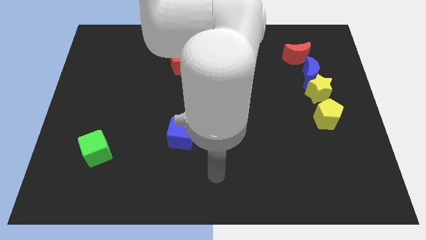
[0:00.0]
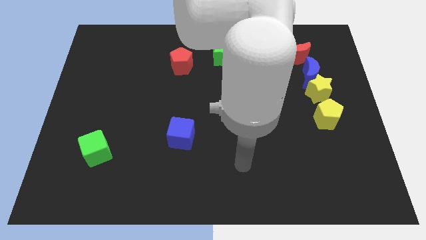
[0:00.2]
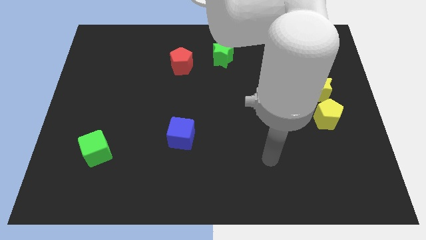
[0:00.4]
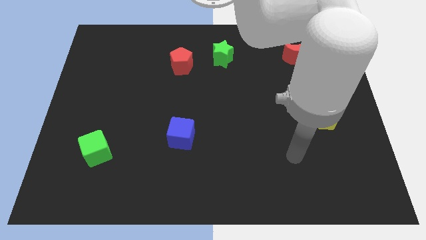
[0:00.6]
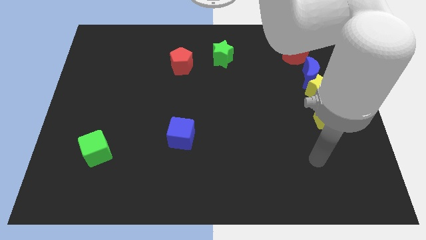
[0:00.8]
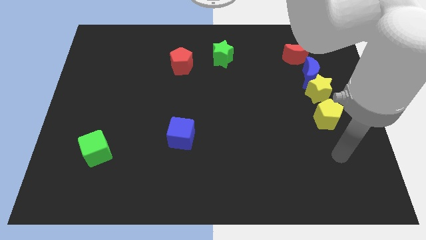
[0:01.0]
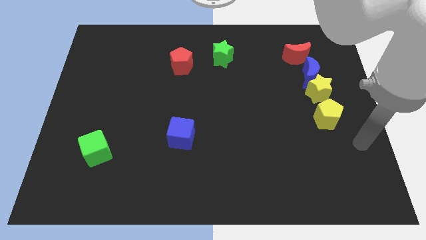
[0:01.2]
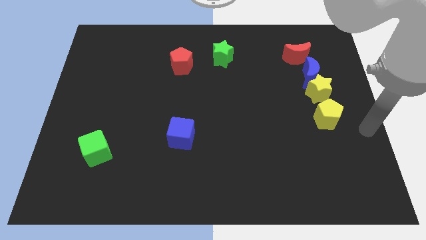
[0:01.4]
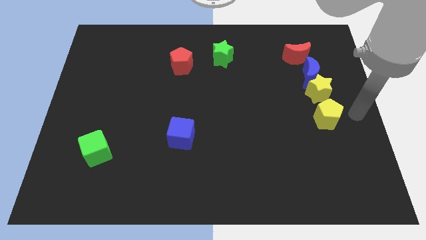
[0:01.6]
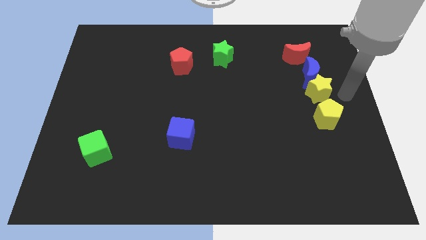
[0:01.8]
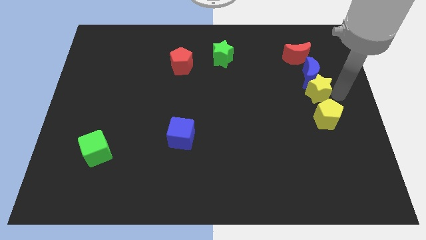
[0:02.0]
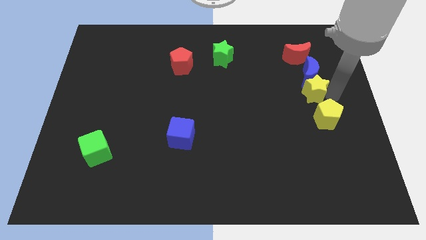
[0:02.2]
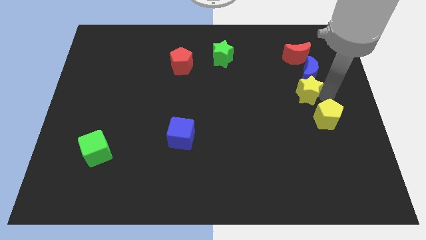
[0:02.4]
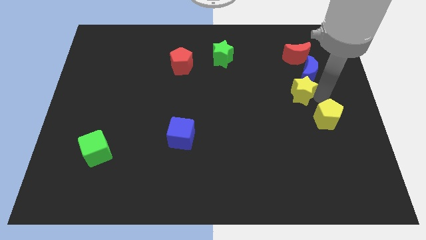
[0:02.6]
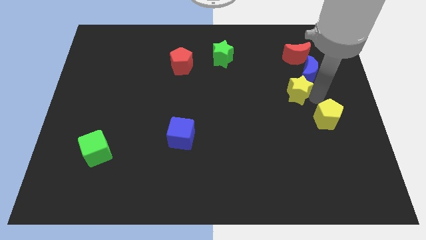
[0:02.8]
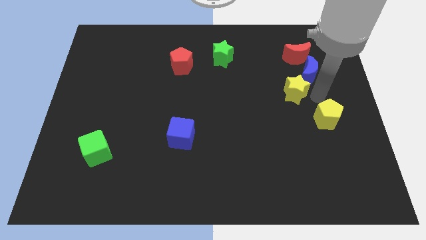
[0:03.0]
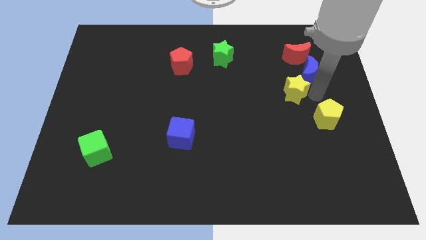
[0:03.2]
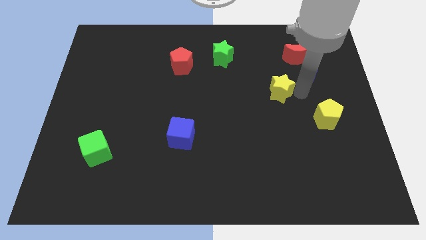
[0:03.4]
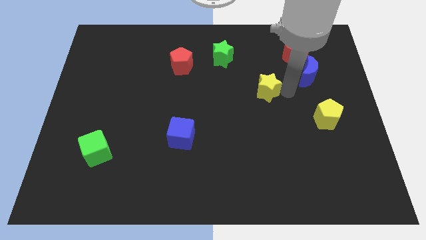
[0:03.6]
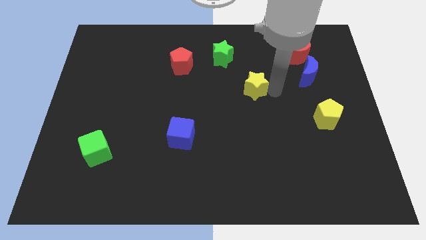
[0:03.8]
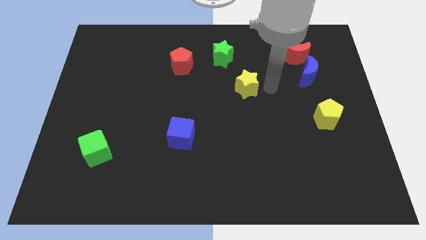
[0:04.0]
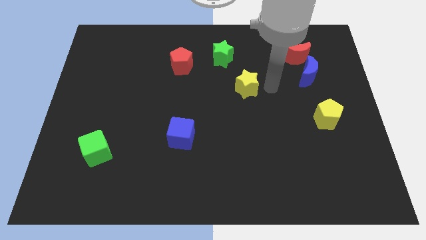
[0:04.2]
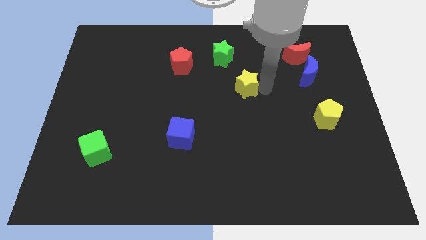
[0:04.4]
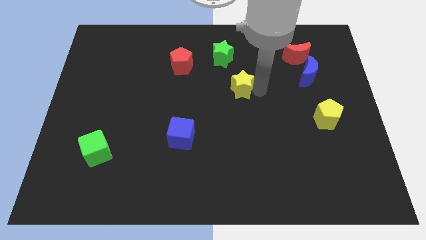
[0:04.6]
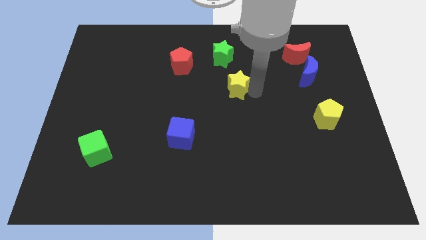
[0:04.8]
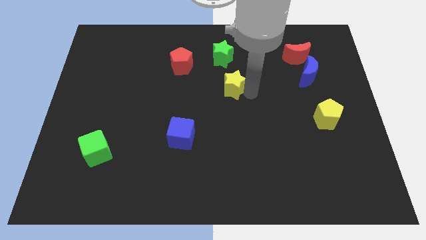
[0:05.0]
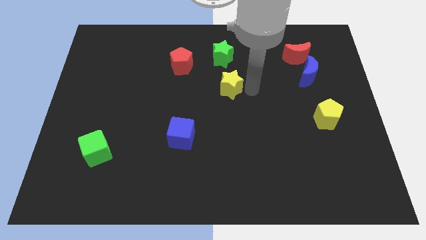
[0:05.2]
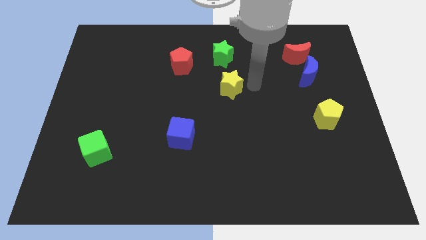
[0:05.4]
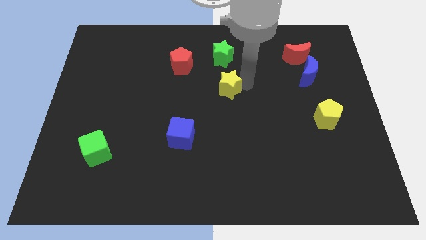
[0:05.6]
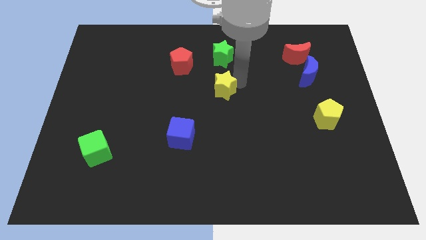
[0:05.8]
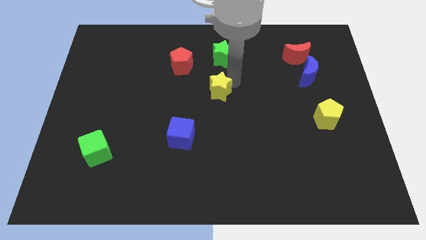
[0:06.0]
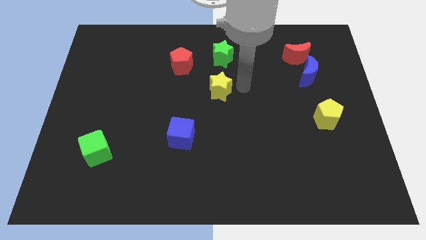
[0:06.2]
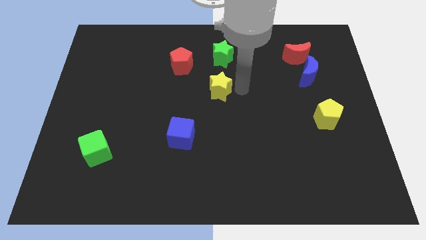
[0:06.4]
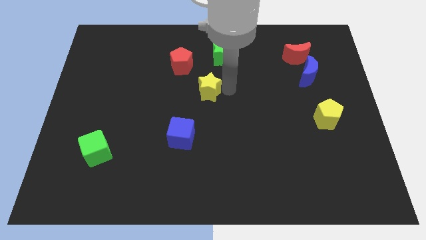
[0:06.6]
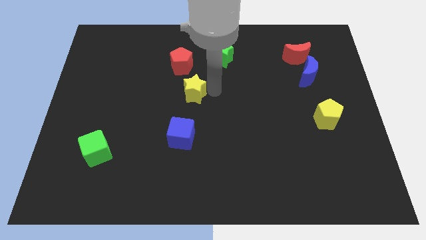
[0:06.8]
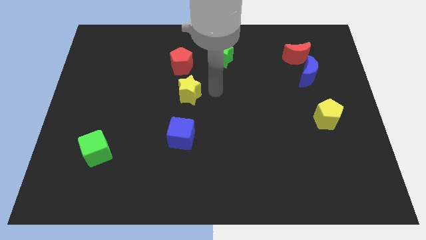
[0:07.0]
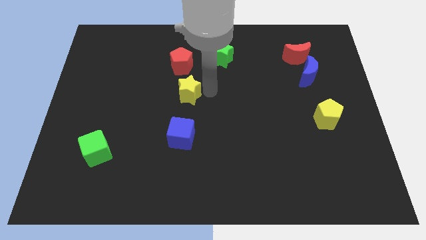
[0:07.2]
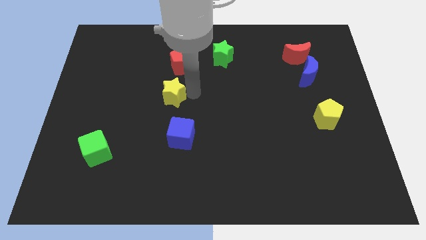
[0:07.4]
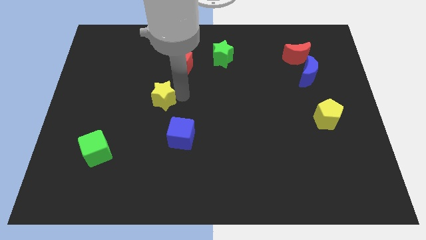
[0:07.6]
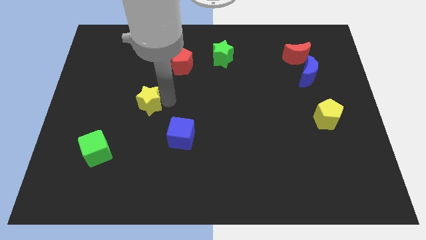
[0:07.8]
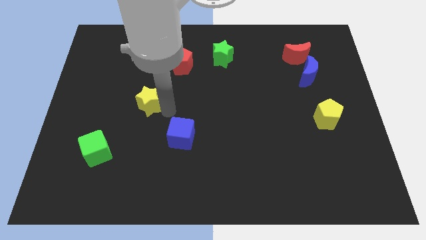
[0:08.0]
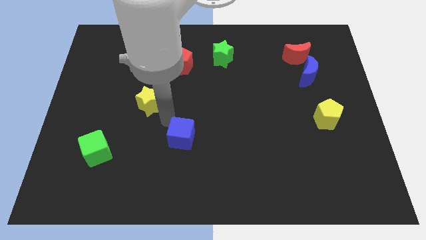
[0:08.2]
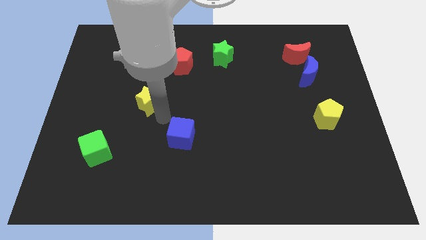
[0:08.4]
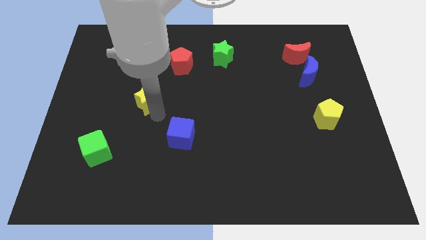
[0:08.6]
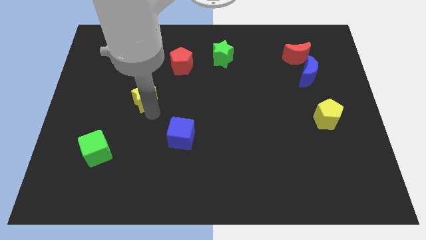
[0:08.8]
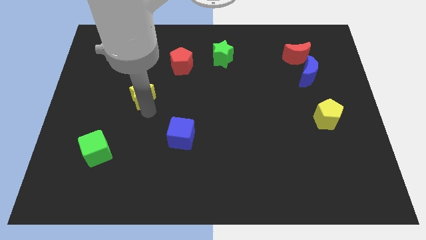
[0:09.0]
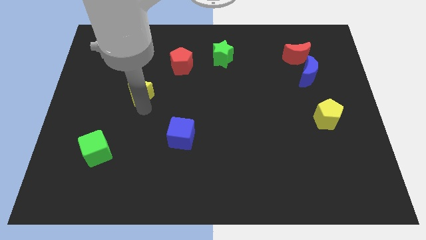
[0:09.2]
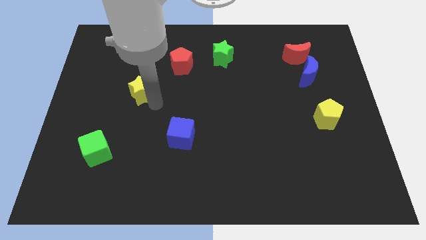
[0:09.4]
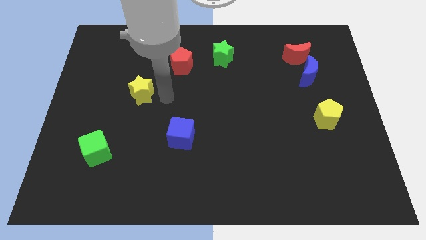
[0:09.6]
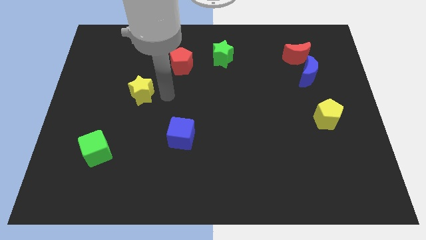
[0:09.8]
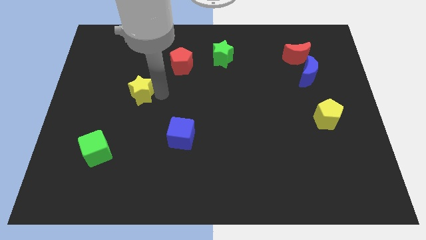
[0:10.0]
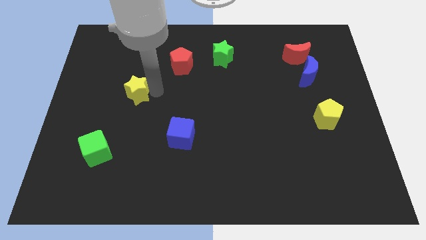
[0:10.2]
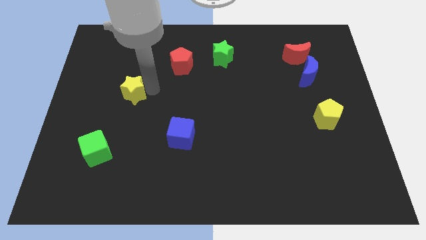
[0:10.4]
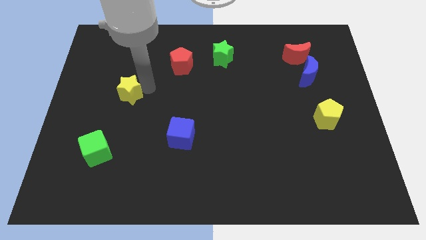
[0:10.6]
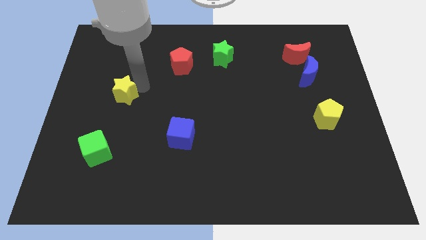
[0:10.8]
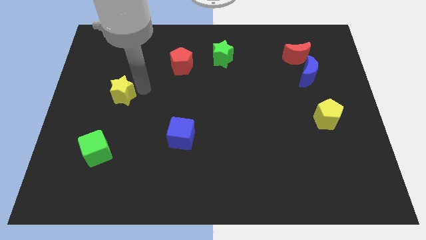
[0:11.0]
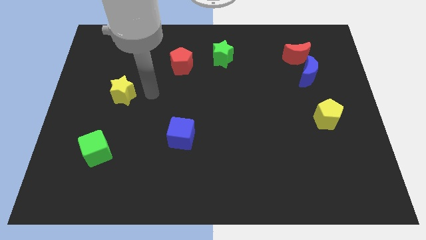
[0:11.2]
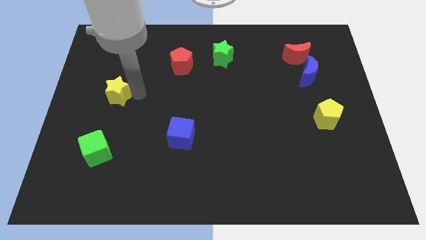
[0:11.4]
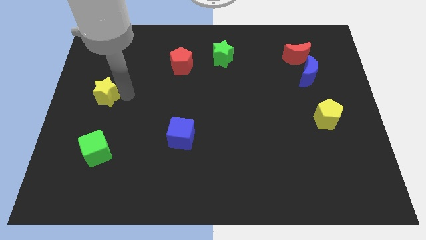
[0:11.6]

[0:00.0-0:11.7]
push the yellow star to the left side of the board

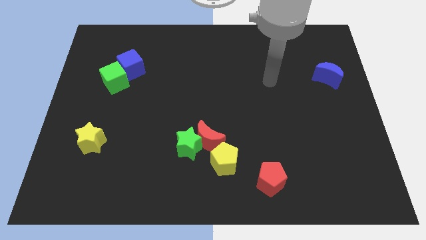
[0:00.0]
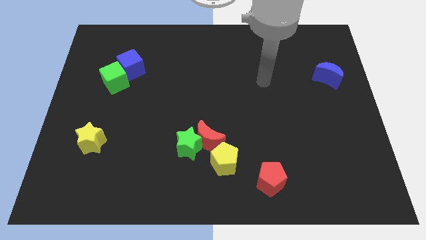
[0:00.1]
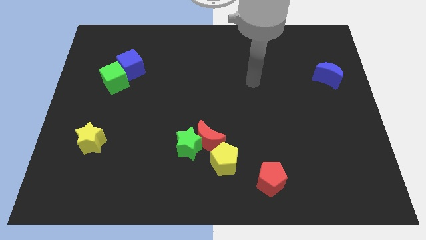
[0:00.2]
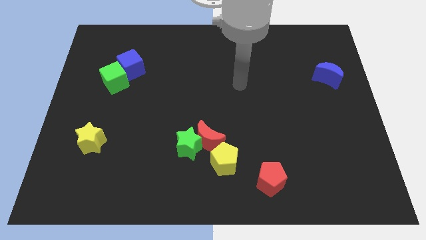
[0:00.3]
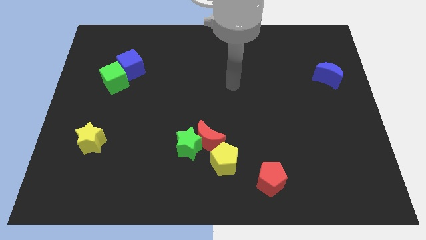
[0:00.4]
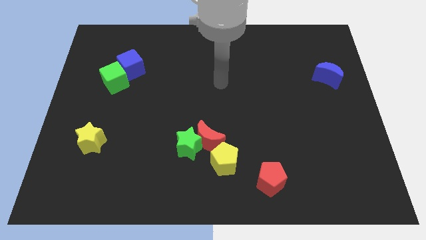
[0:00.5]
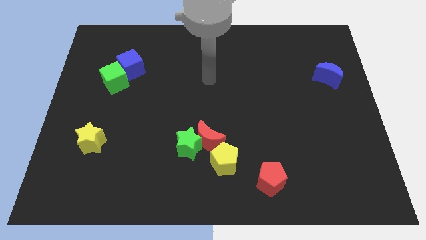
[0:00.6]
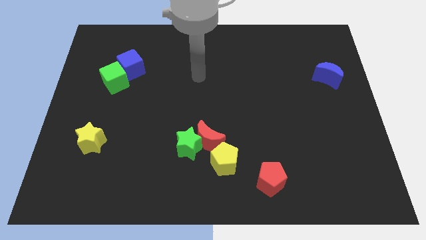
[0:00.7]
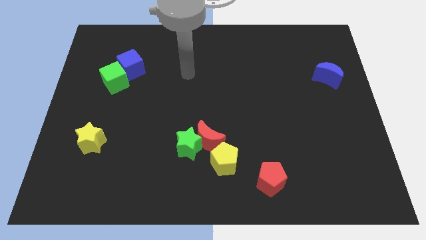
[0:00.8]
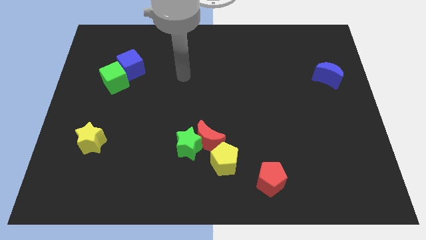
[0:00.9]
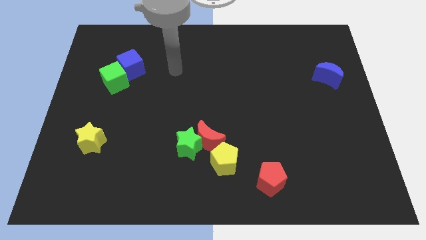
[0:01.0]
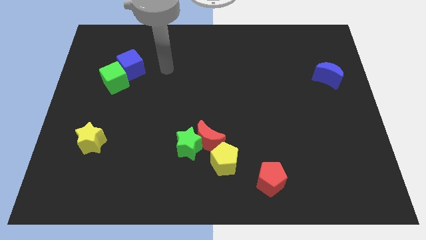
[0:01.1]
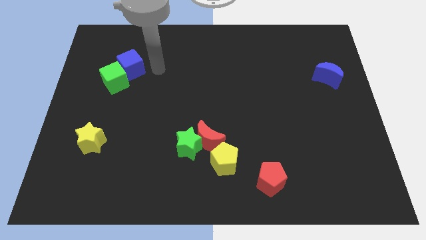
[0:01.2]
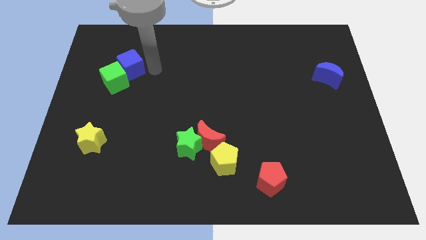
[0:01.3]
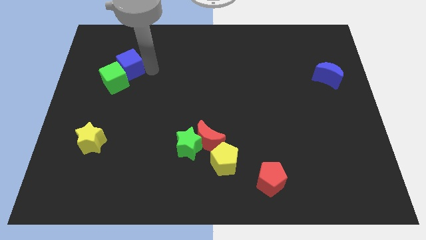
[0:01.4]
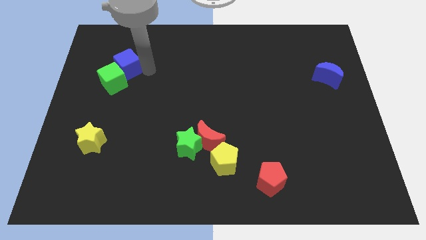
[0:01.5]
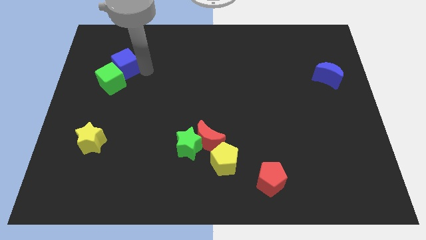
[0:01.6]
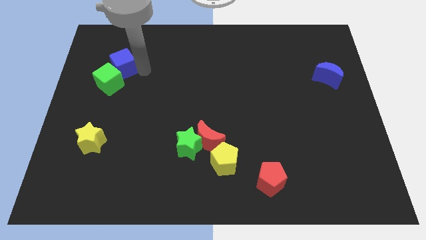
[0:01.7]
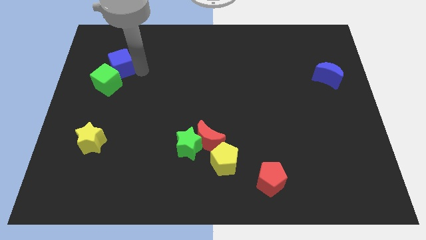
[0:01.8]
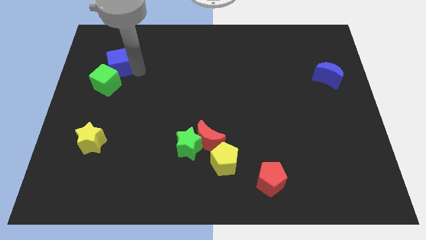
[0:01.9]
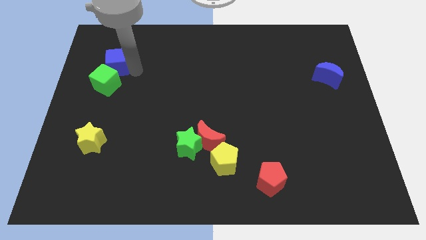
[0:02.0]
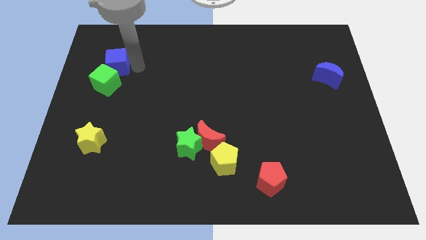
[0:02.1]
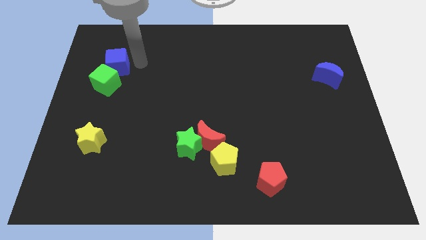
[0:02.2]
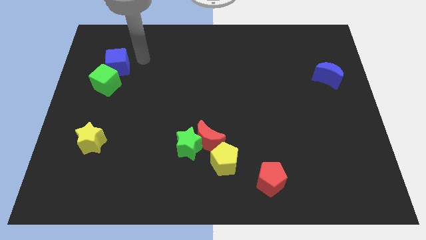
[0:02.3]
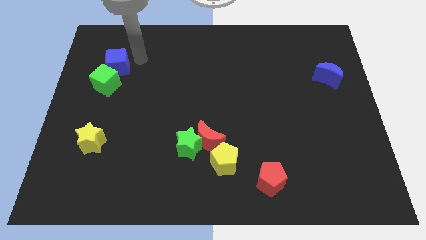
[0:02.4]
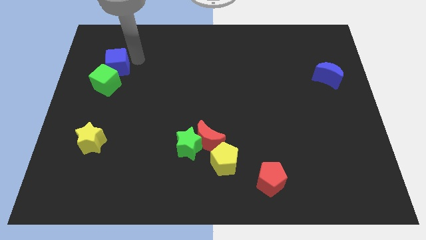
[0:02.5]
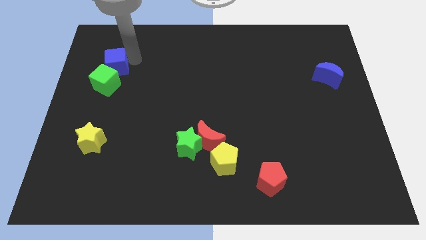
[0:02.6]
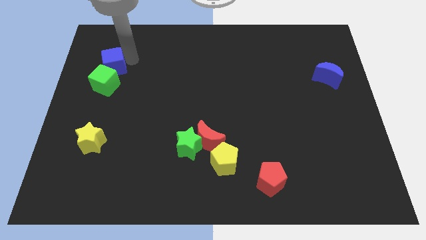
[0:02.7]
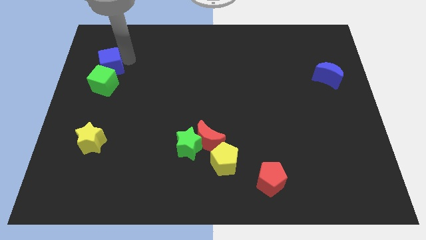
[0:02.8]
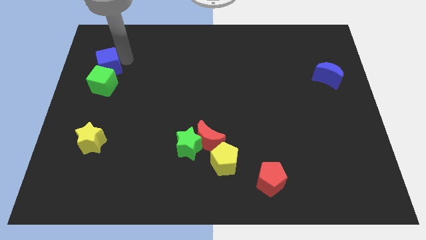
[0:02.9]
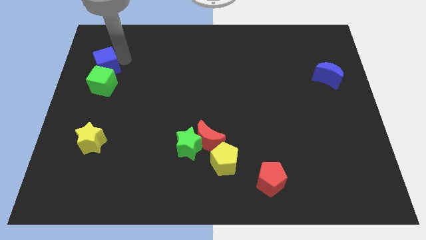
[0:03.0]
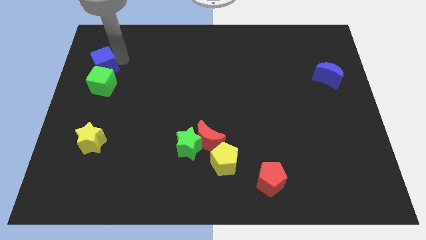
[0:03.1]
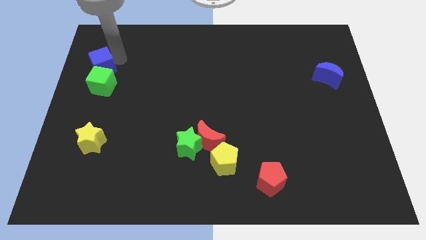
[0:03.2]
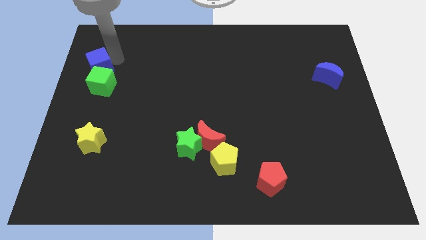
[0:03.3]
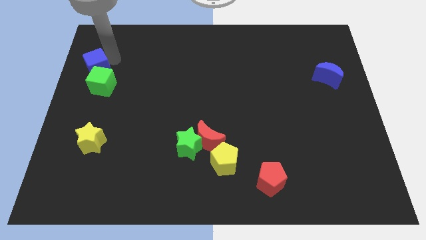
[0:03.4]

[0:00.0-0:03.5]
put the blue cube to the left side
